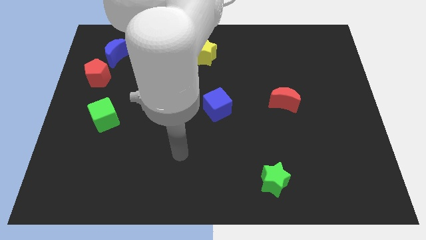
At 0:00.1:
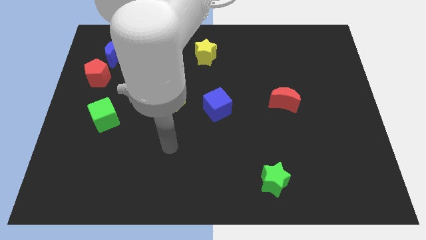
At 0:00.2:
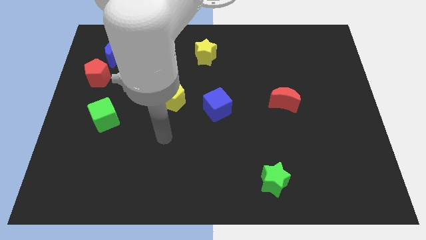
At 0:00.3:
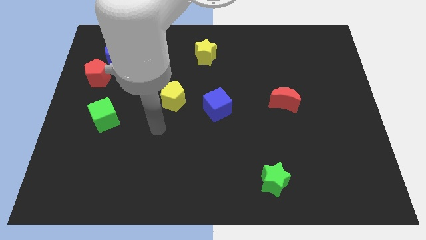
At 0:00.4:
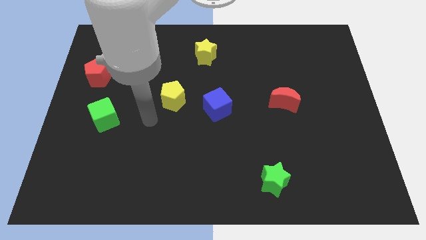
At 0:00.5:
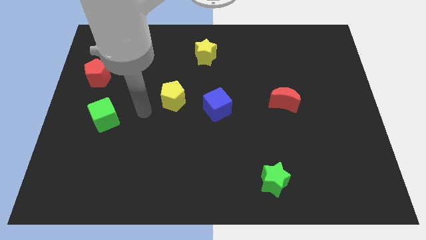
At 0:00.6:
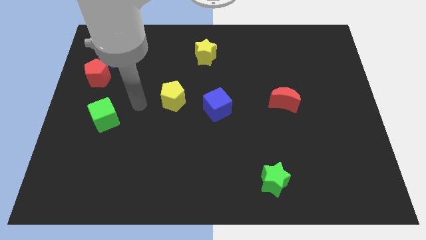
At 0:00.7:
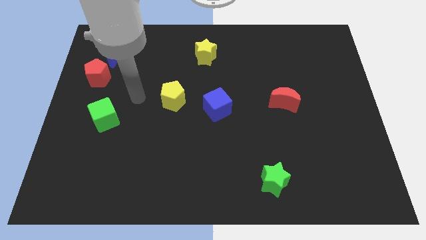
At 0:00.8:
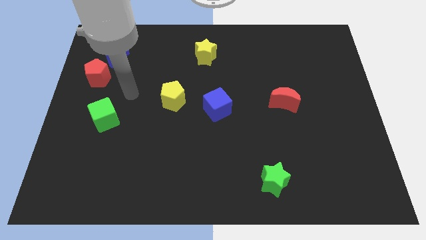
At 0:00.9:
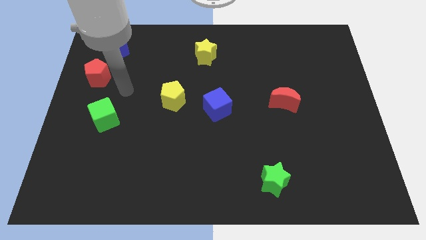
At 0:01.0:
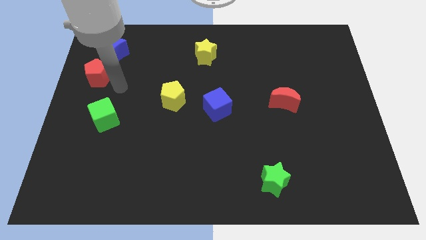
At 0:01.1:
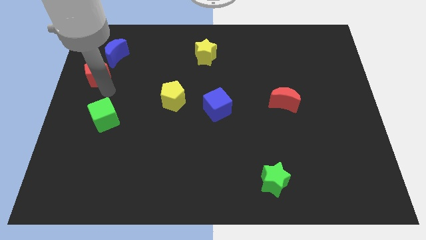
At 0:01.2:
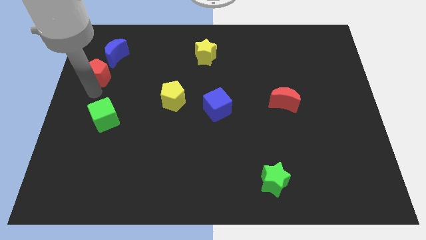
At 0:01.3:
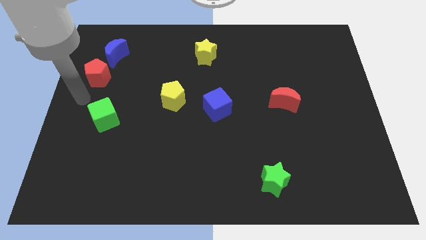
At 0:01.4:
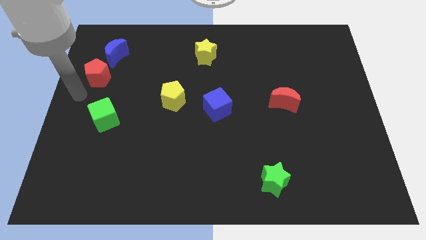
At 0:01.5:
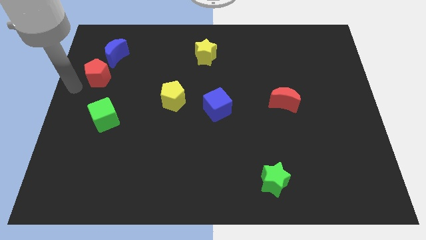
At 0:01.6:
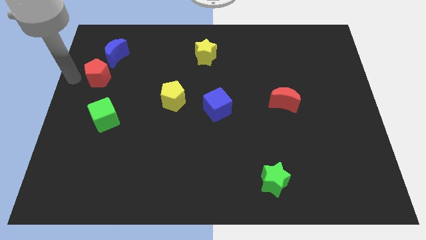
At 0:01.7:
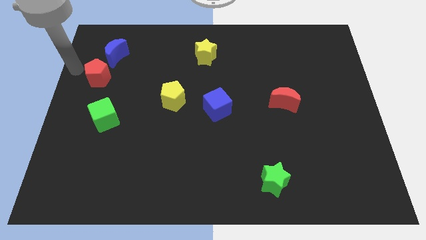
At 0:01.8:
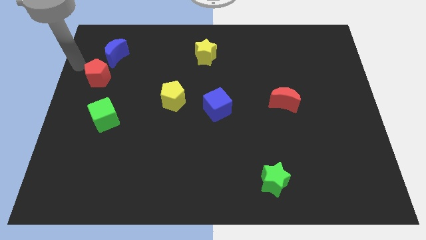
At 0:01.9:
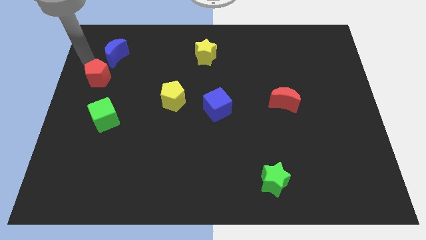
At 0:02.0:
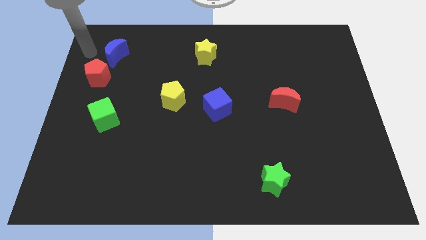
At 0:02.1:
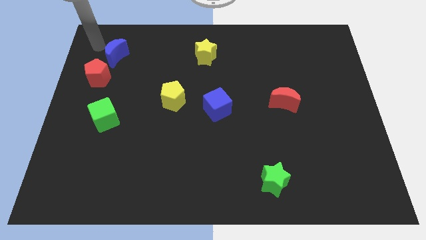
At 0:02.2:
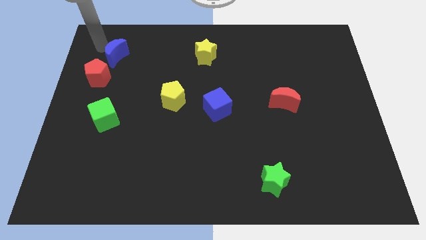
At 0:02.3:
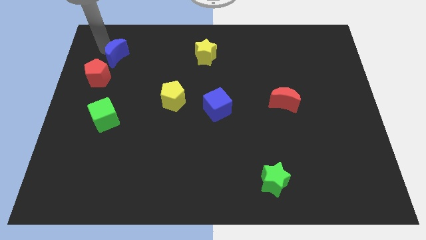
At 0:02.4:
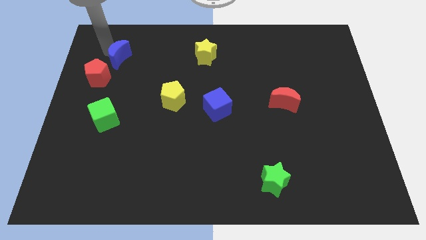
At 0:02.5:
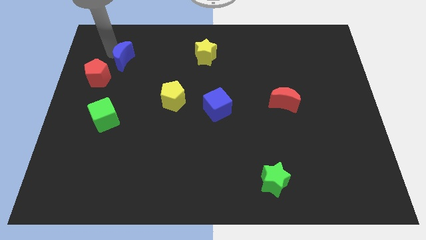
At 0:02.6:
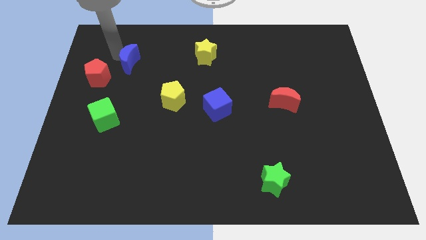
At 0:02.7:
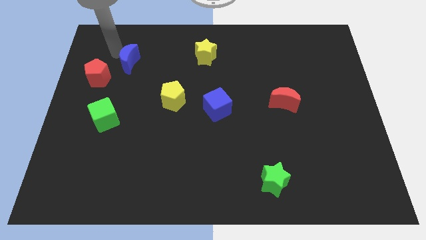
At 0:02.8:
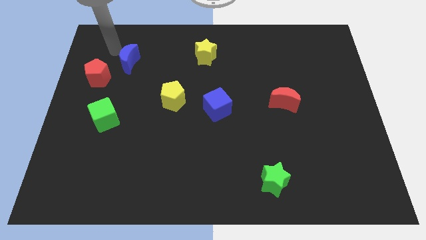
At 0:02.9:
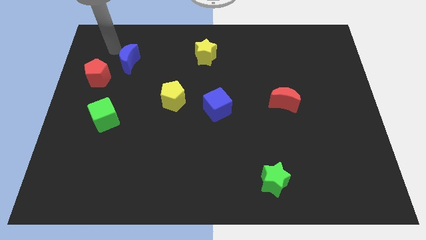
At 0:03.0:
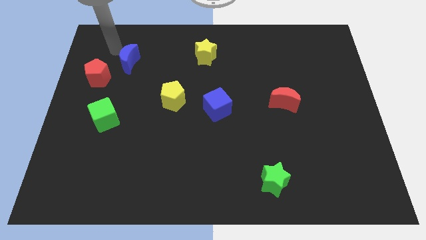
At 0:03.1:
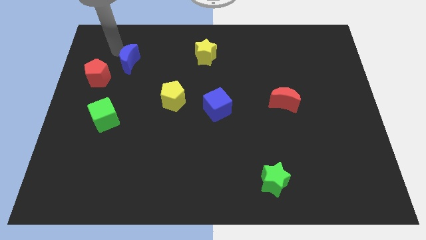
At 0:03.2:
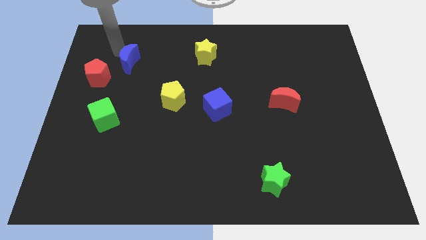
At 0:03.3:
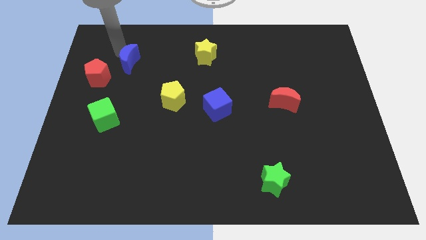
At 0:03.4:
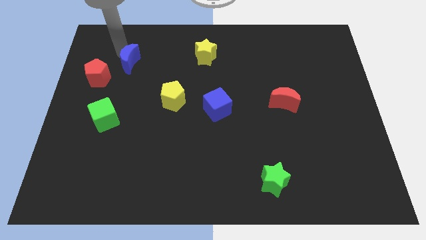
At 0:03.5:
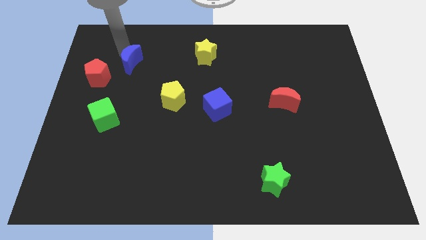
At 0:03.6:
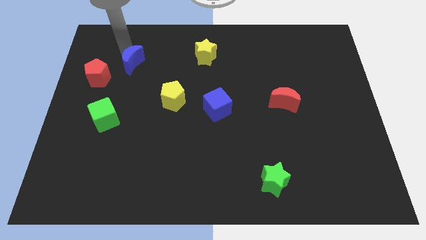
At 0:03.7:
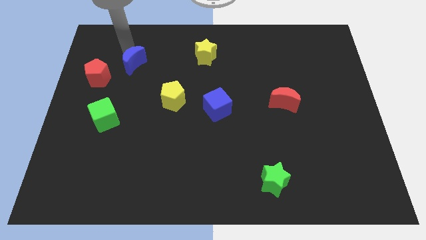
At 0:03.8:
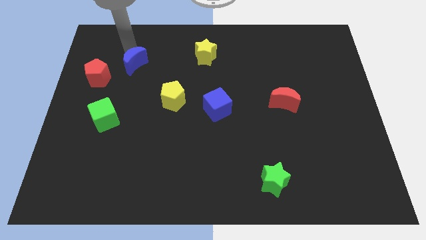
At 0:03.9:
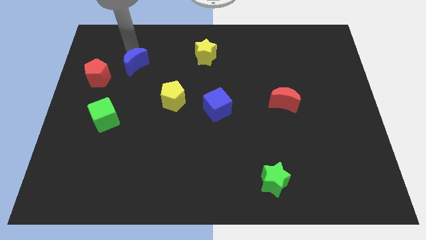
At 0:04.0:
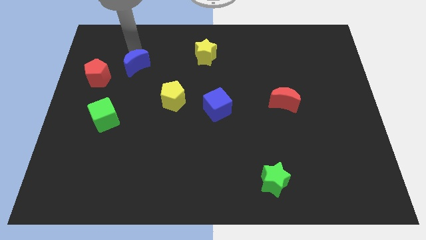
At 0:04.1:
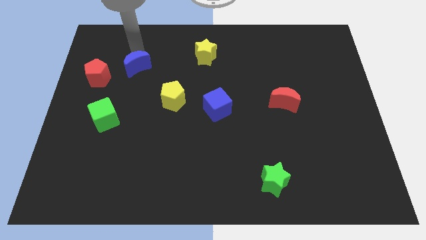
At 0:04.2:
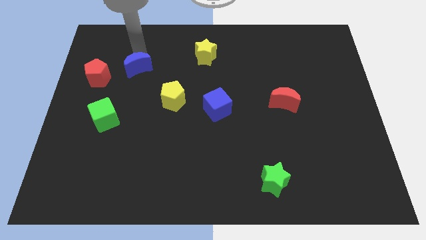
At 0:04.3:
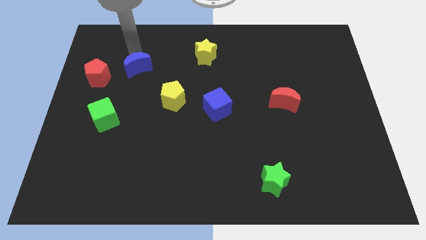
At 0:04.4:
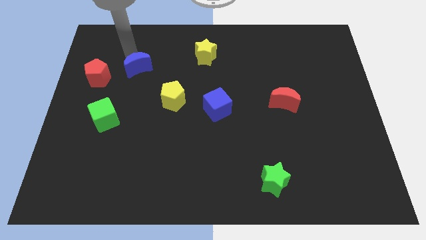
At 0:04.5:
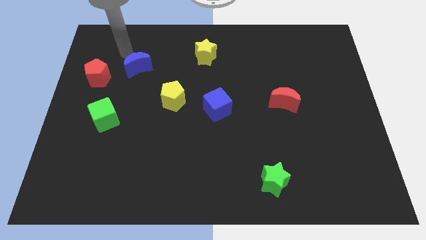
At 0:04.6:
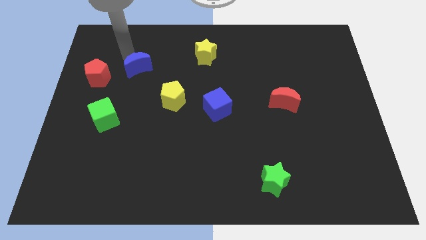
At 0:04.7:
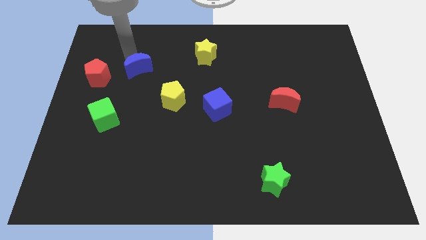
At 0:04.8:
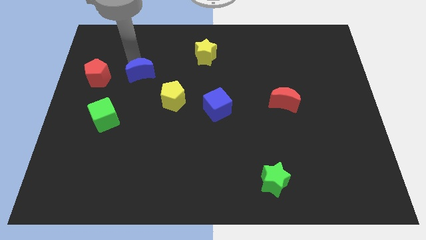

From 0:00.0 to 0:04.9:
push the blue moon to the top left of the yellow pentagon

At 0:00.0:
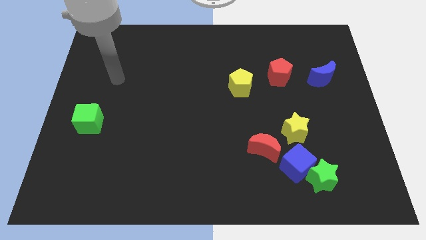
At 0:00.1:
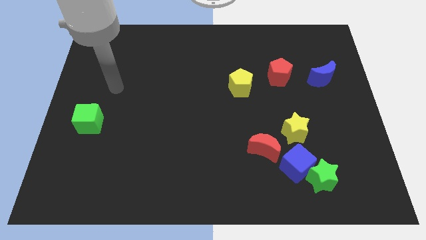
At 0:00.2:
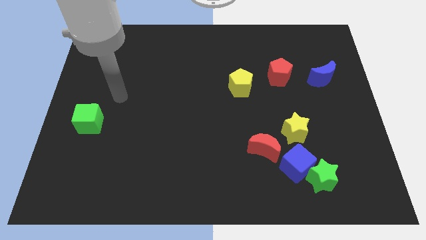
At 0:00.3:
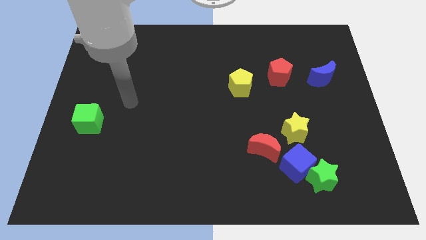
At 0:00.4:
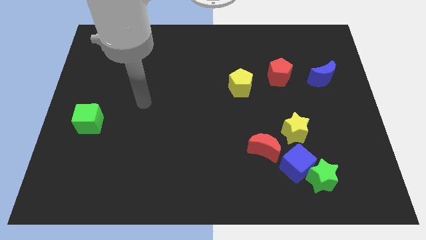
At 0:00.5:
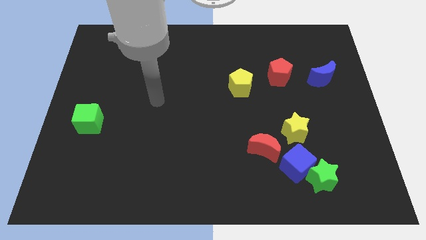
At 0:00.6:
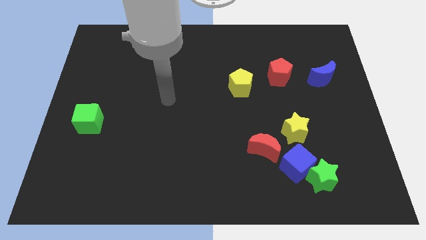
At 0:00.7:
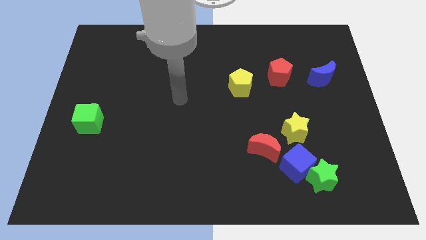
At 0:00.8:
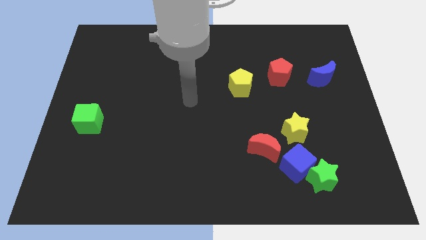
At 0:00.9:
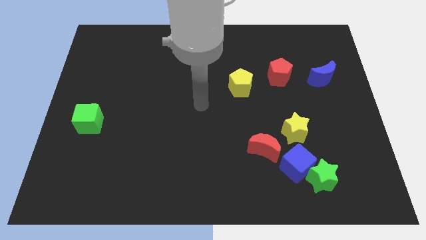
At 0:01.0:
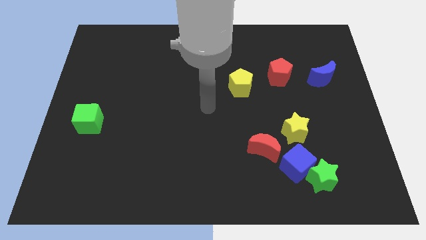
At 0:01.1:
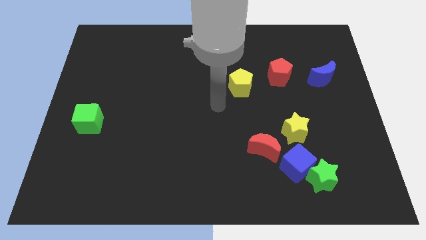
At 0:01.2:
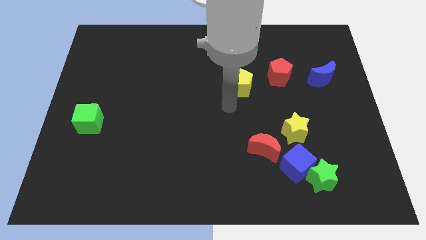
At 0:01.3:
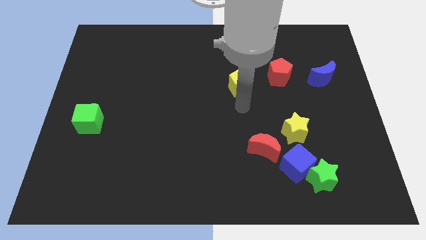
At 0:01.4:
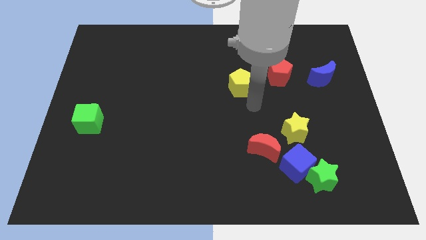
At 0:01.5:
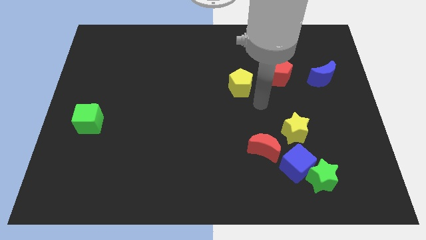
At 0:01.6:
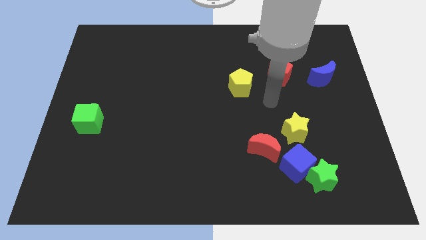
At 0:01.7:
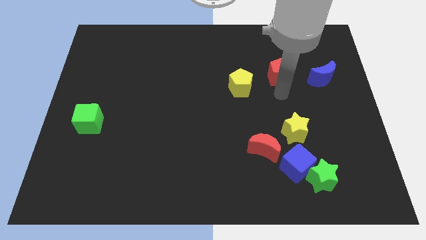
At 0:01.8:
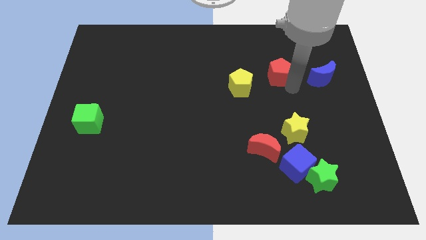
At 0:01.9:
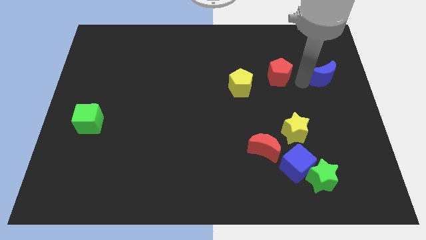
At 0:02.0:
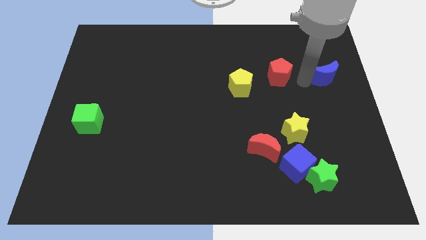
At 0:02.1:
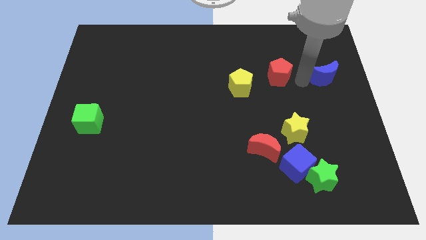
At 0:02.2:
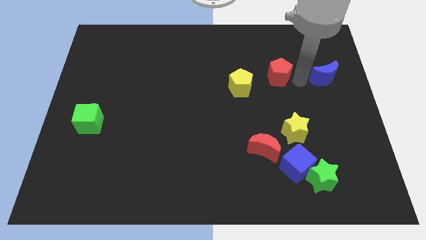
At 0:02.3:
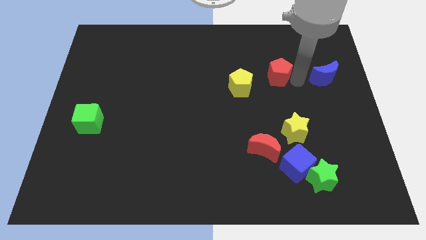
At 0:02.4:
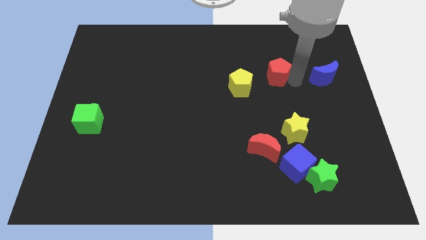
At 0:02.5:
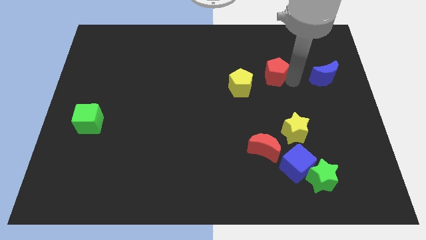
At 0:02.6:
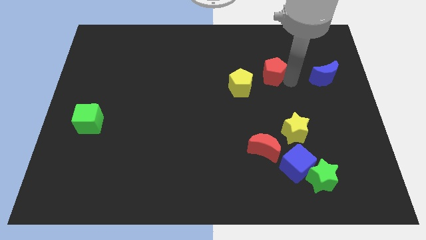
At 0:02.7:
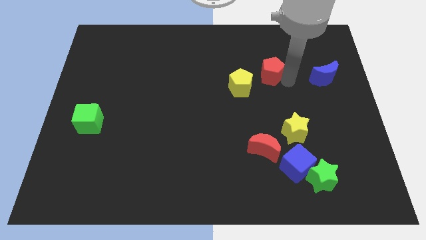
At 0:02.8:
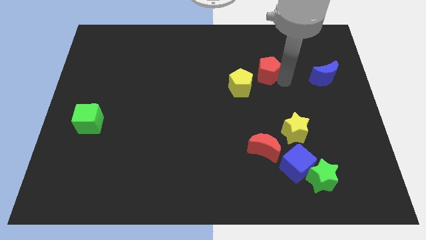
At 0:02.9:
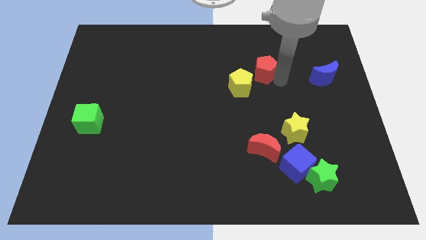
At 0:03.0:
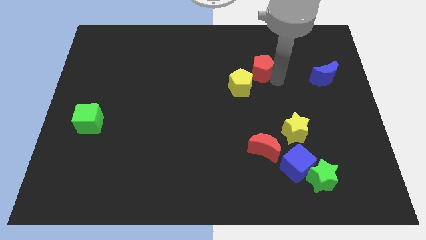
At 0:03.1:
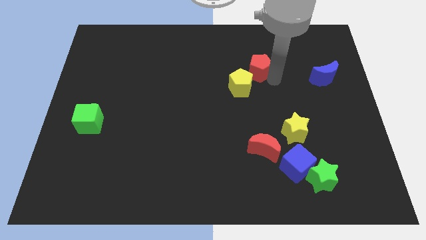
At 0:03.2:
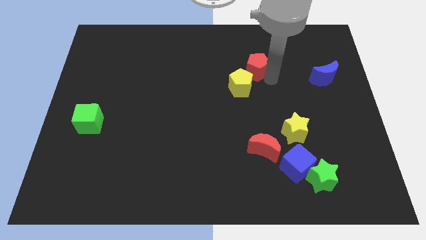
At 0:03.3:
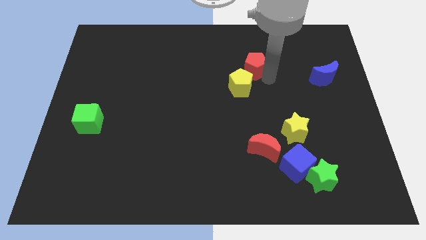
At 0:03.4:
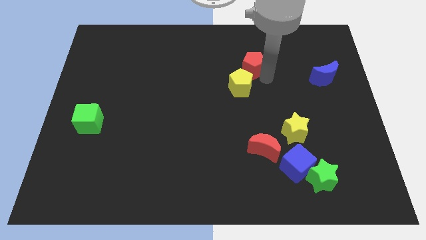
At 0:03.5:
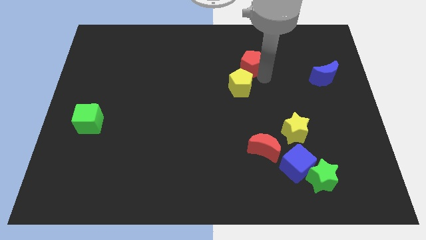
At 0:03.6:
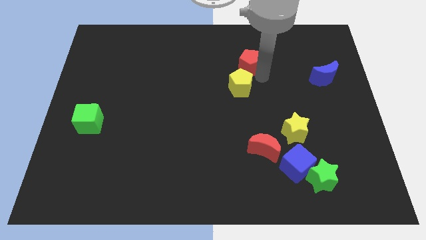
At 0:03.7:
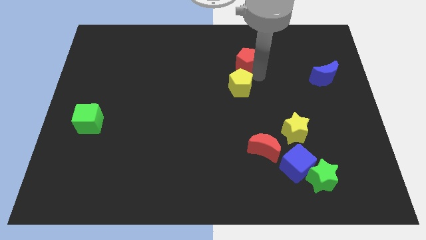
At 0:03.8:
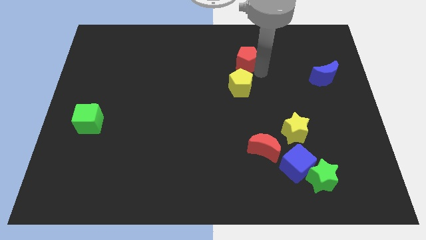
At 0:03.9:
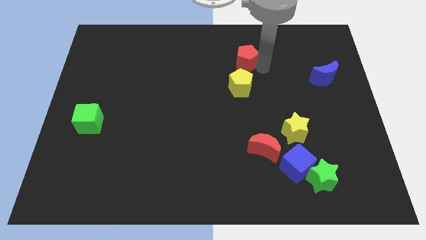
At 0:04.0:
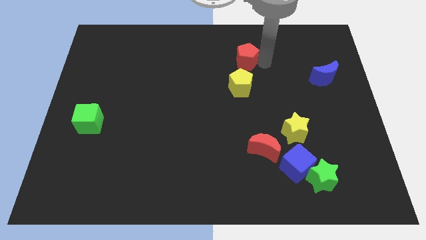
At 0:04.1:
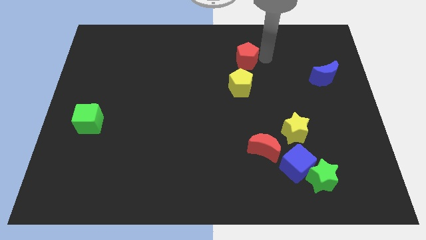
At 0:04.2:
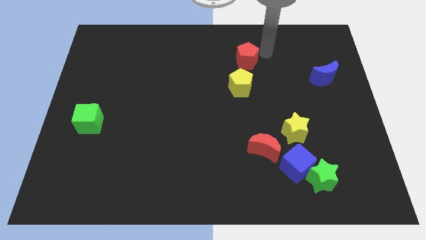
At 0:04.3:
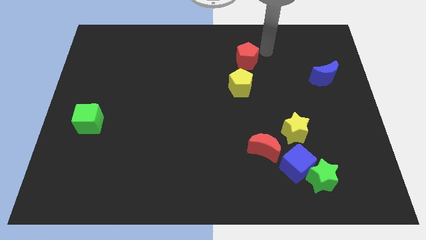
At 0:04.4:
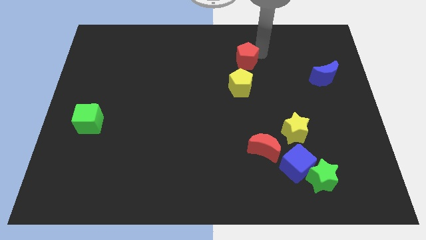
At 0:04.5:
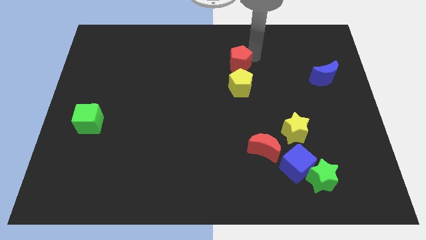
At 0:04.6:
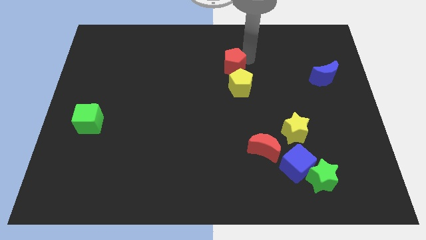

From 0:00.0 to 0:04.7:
push the red pentagon to the top left side of the yellow pentagon
